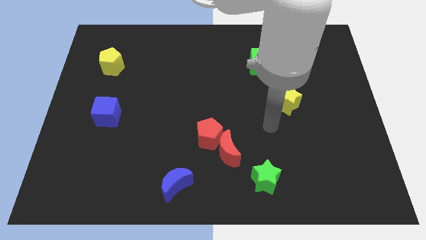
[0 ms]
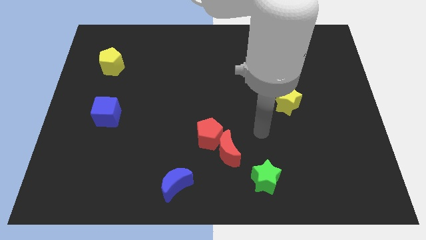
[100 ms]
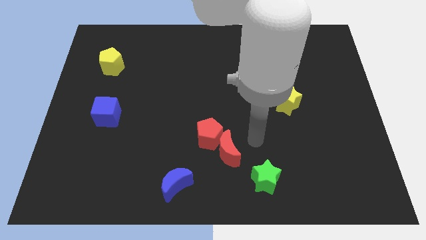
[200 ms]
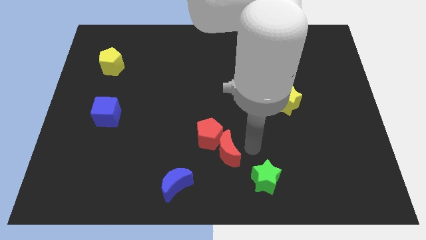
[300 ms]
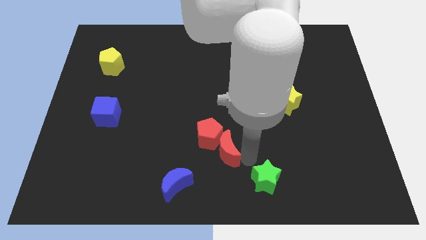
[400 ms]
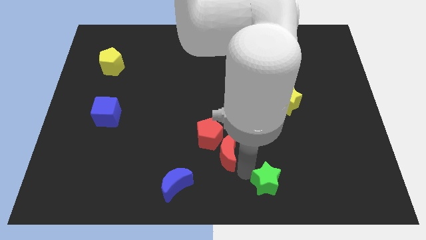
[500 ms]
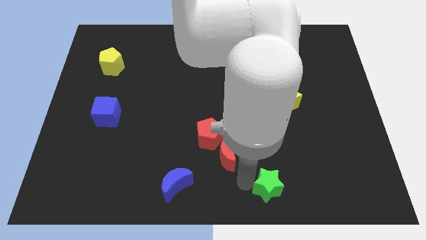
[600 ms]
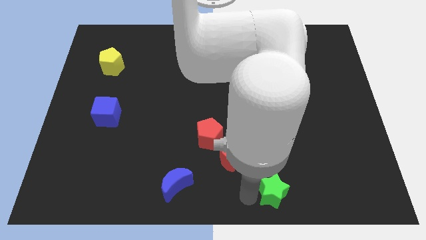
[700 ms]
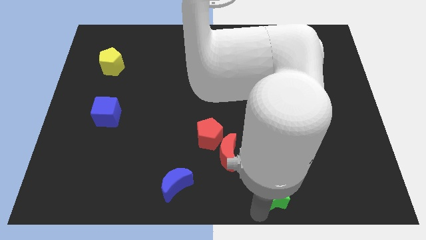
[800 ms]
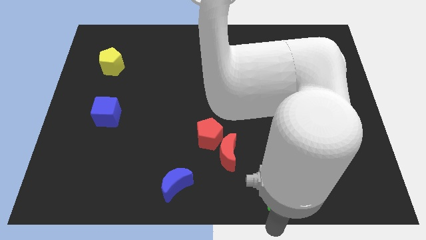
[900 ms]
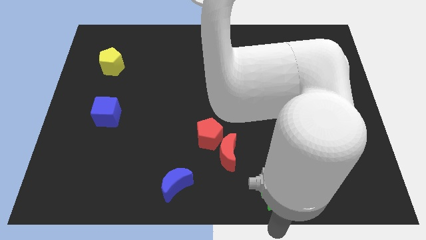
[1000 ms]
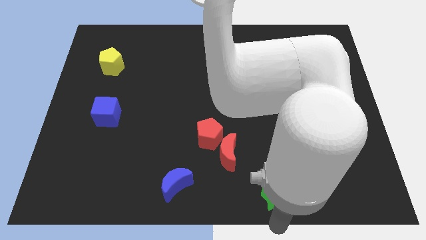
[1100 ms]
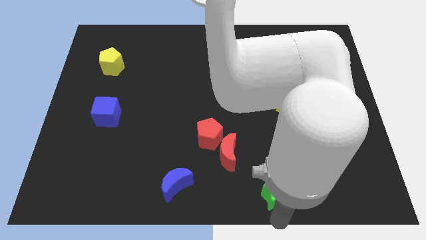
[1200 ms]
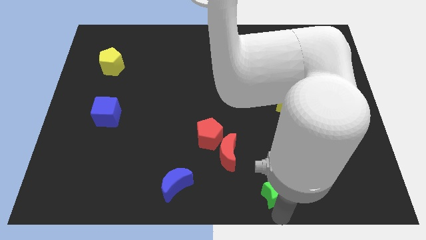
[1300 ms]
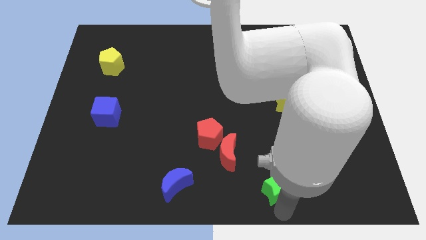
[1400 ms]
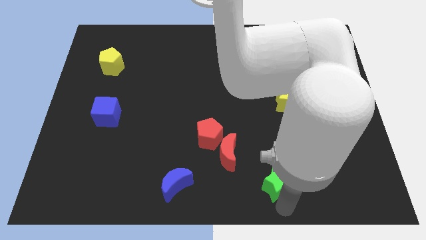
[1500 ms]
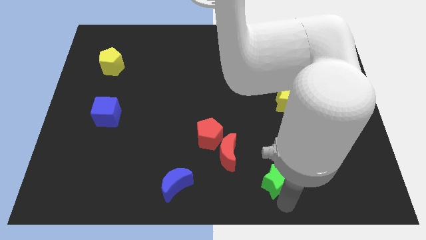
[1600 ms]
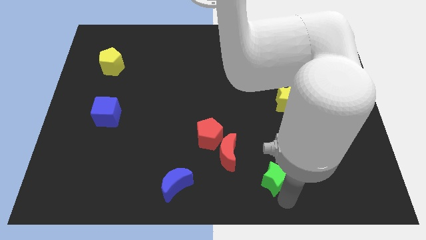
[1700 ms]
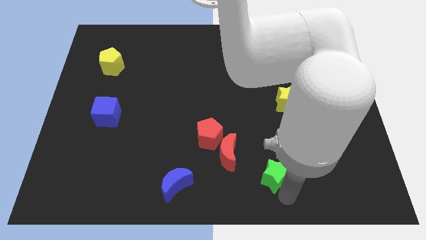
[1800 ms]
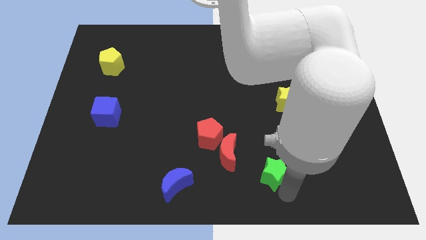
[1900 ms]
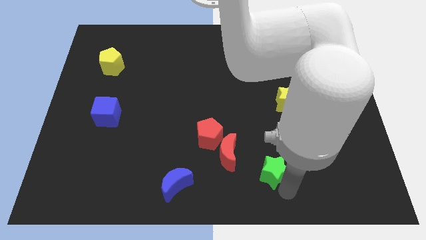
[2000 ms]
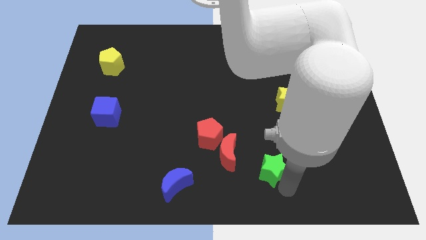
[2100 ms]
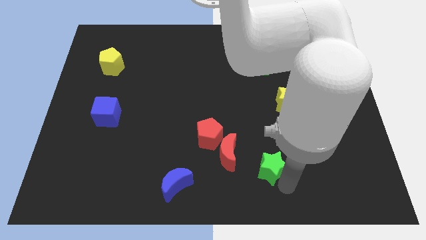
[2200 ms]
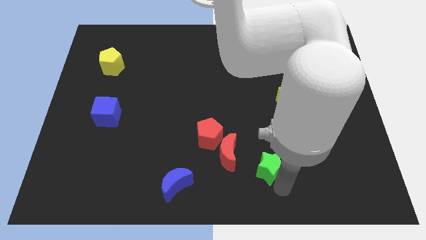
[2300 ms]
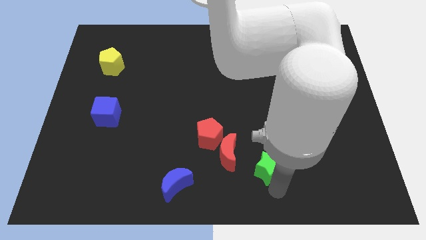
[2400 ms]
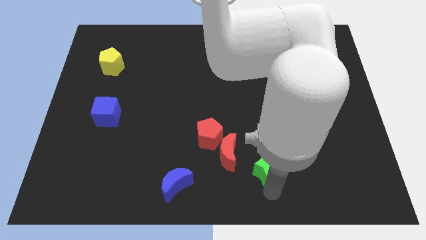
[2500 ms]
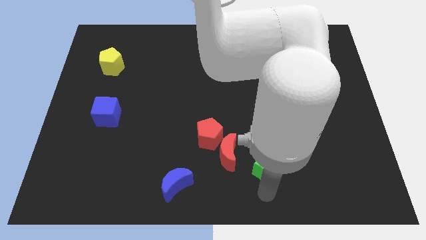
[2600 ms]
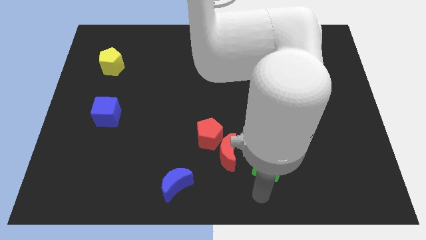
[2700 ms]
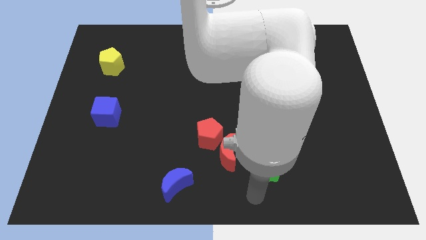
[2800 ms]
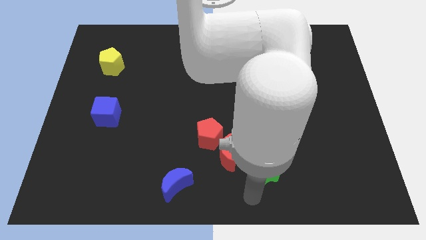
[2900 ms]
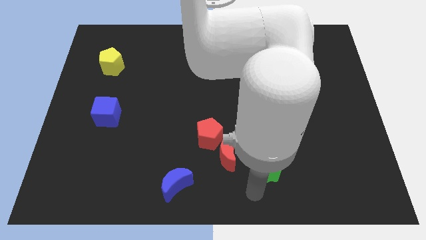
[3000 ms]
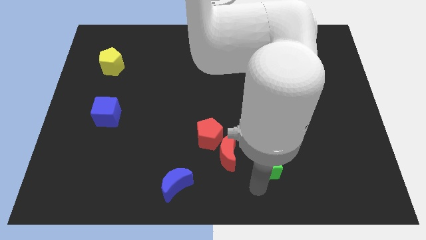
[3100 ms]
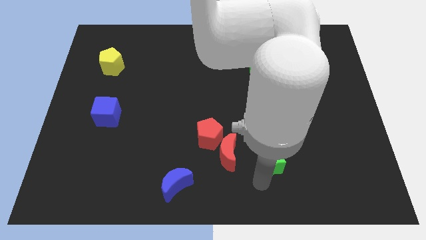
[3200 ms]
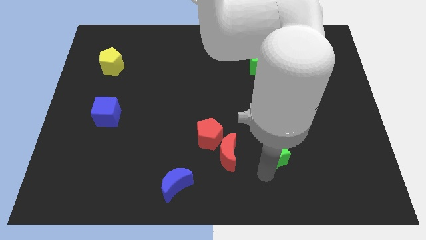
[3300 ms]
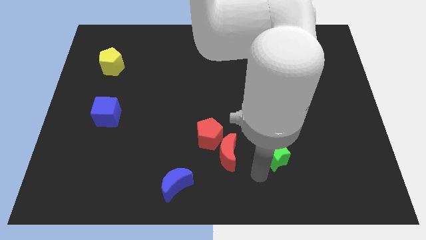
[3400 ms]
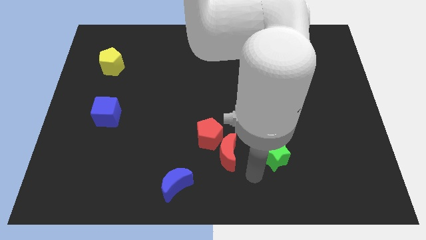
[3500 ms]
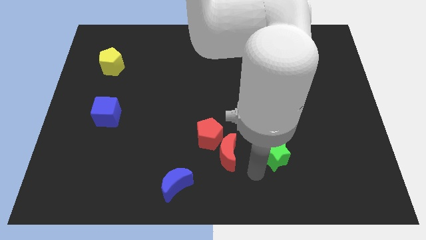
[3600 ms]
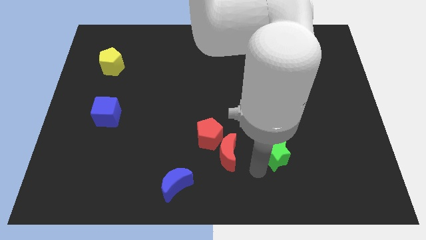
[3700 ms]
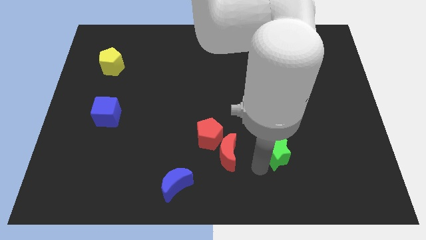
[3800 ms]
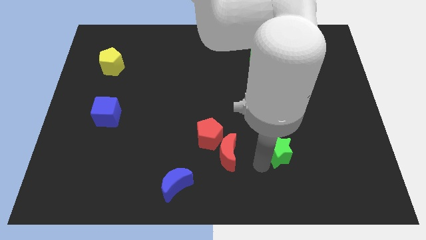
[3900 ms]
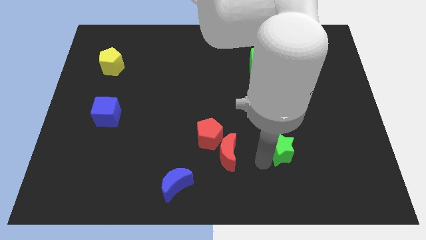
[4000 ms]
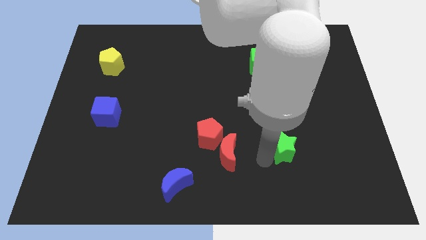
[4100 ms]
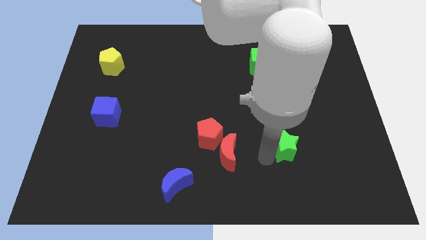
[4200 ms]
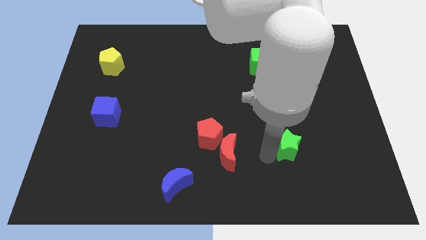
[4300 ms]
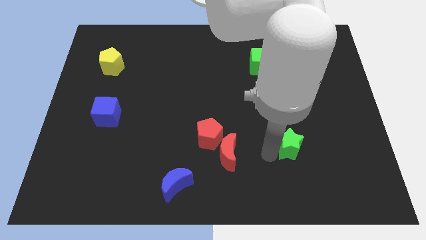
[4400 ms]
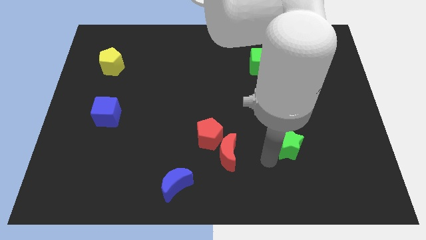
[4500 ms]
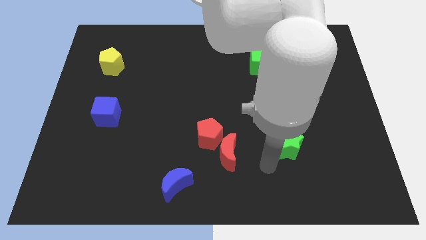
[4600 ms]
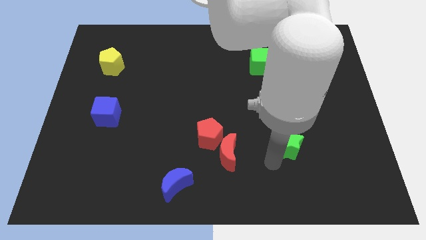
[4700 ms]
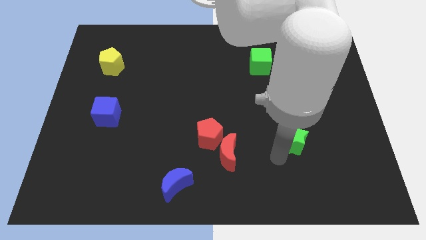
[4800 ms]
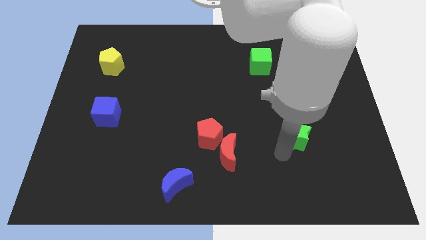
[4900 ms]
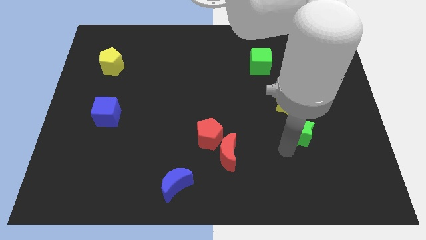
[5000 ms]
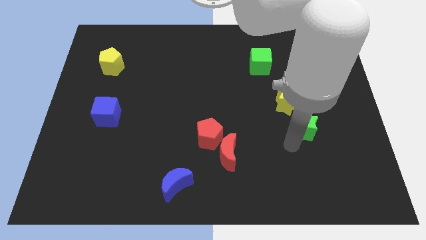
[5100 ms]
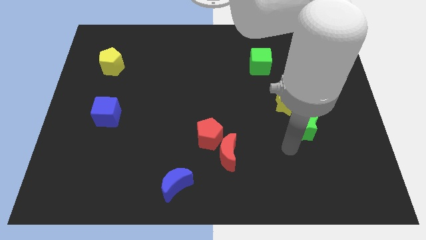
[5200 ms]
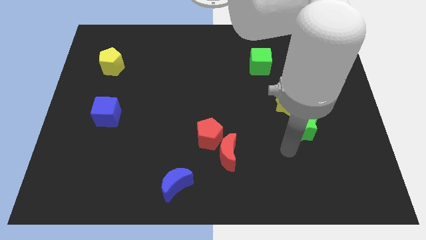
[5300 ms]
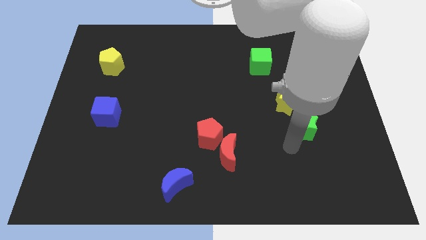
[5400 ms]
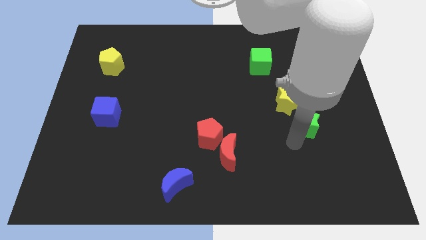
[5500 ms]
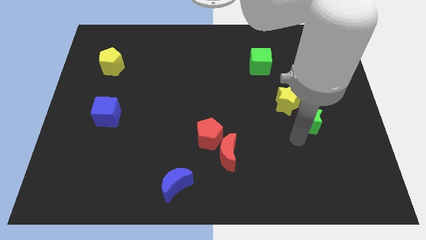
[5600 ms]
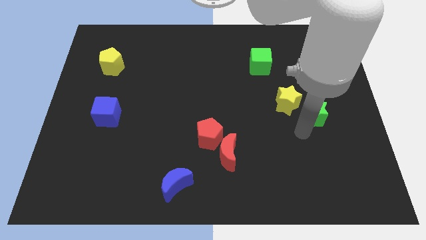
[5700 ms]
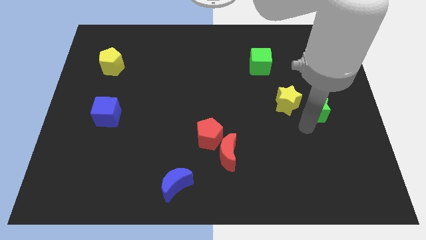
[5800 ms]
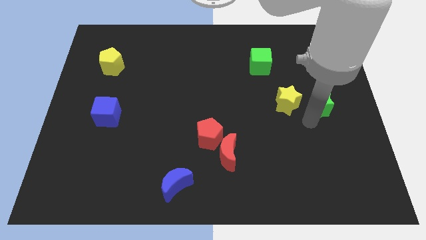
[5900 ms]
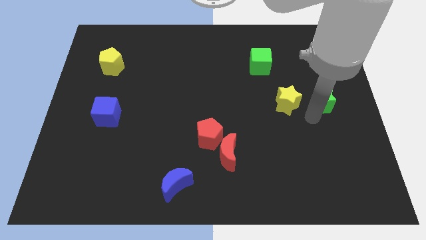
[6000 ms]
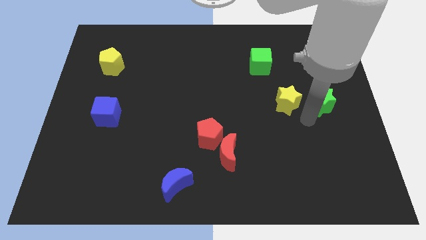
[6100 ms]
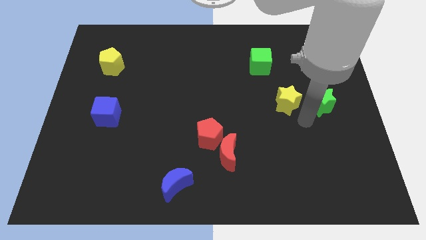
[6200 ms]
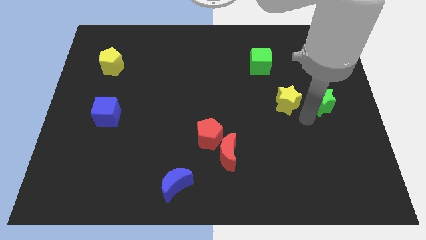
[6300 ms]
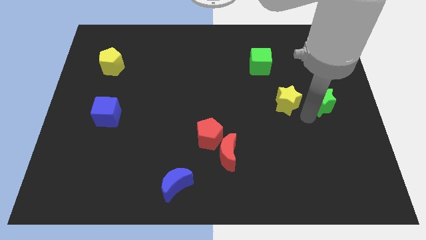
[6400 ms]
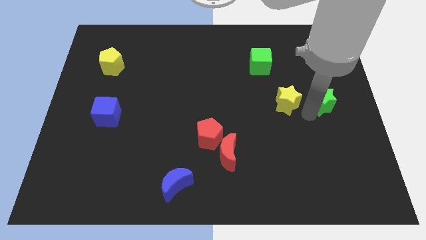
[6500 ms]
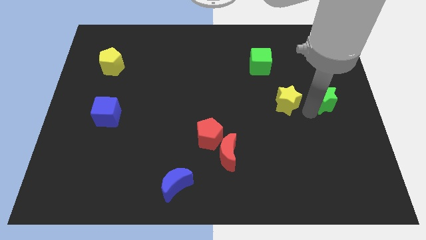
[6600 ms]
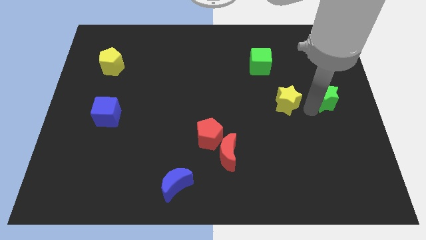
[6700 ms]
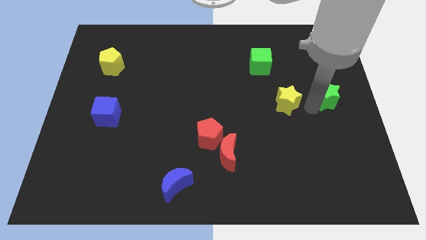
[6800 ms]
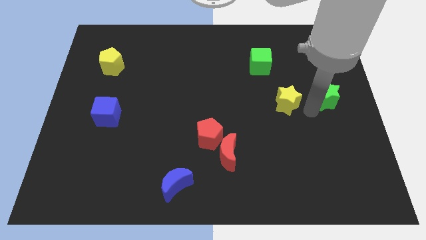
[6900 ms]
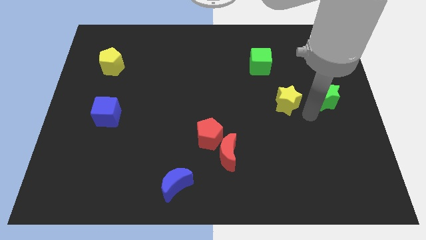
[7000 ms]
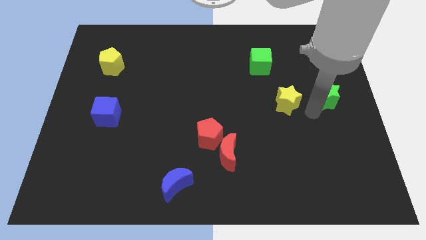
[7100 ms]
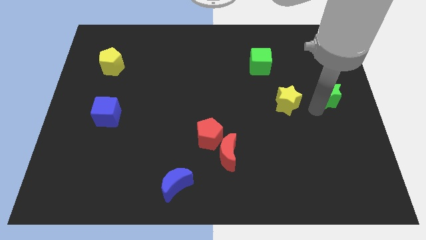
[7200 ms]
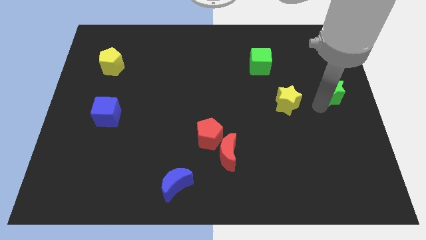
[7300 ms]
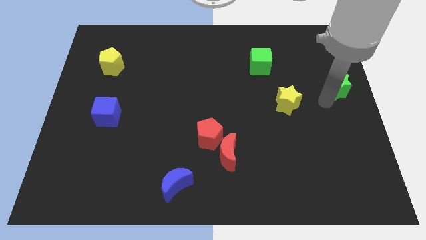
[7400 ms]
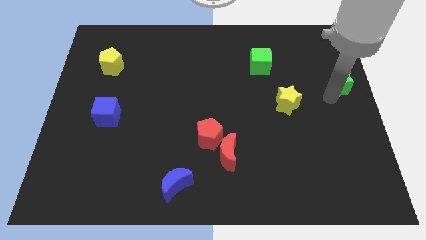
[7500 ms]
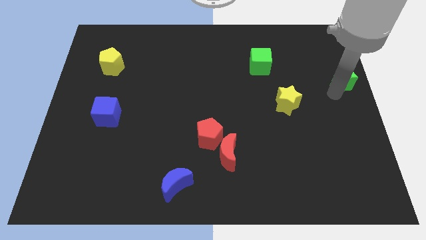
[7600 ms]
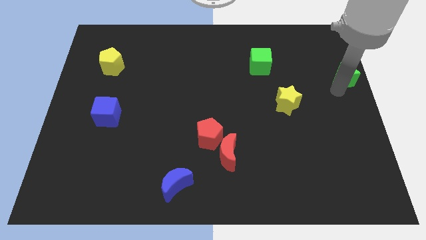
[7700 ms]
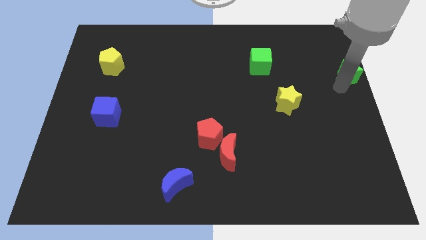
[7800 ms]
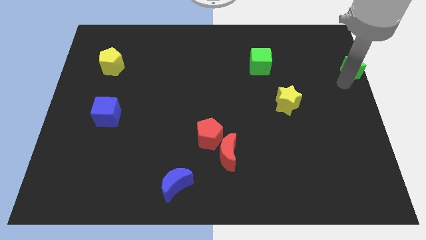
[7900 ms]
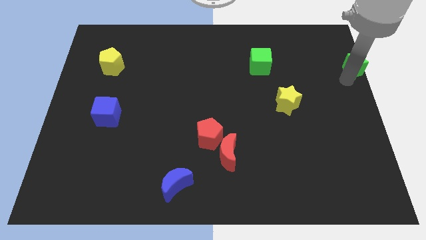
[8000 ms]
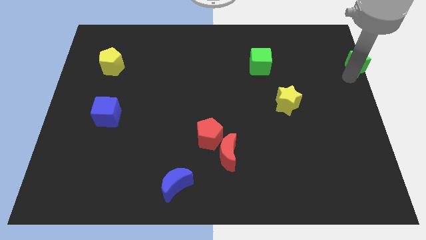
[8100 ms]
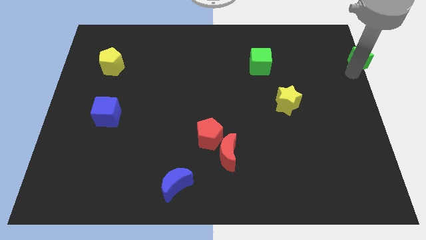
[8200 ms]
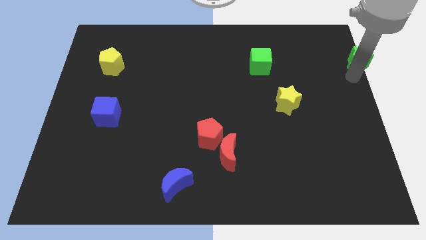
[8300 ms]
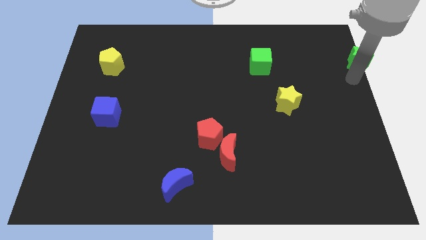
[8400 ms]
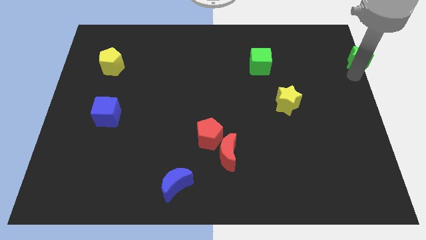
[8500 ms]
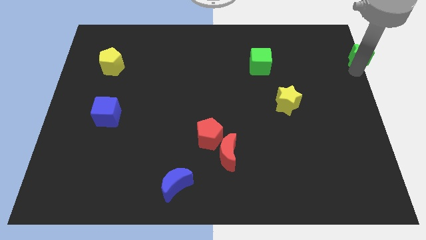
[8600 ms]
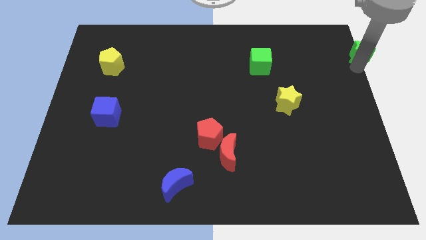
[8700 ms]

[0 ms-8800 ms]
move the green star to the upper right corner
